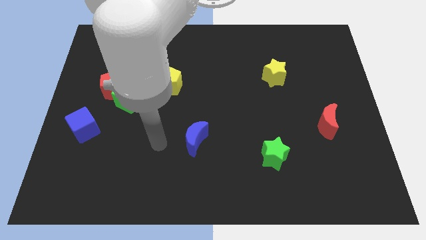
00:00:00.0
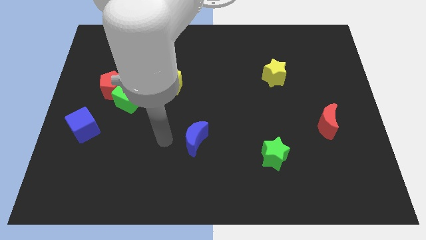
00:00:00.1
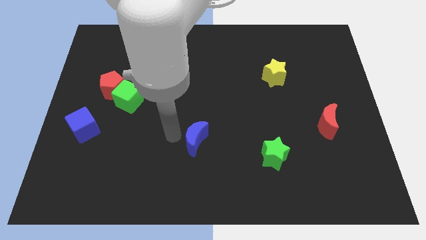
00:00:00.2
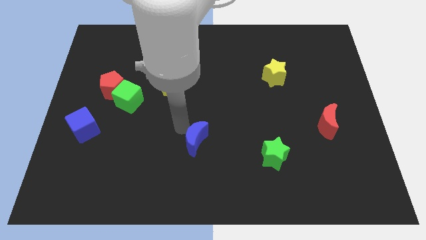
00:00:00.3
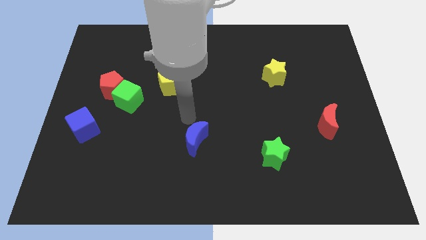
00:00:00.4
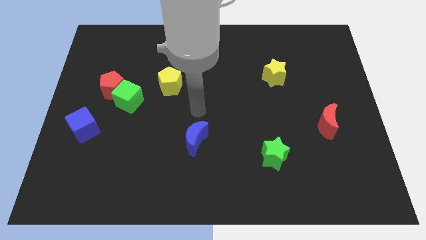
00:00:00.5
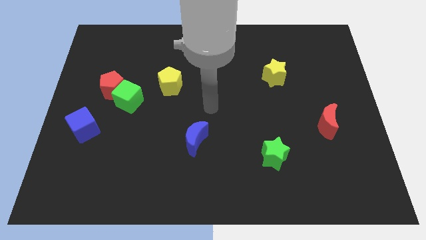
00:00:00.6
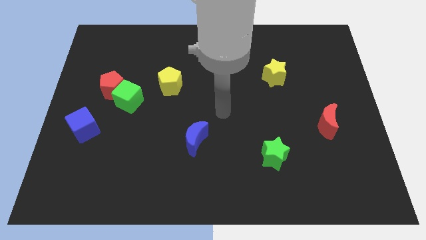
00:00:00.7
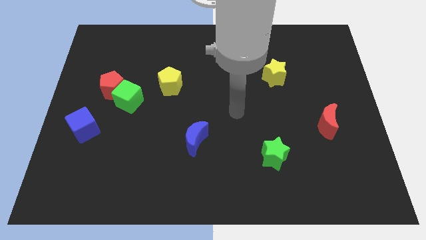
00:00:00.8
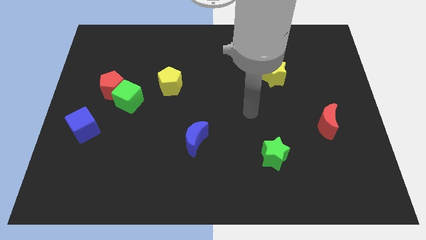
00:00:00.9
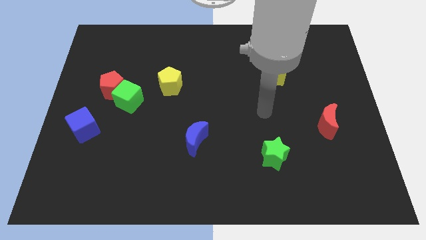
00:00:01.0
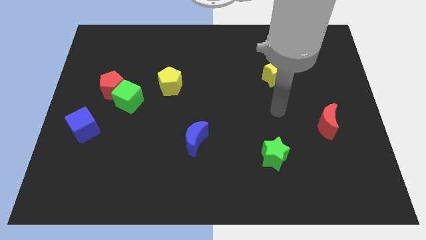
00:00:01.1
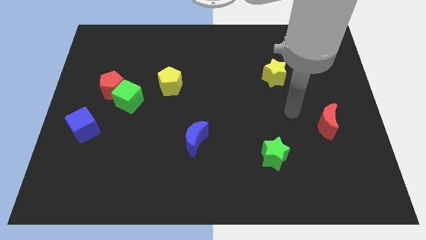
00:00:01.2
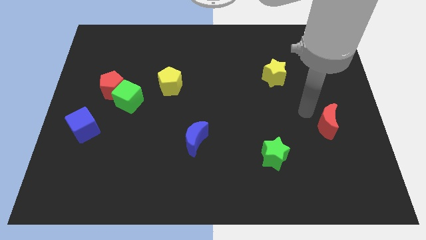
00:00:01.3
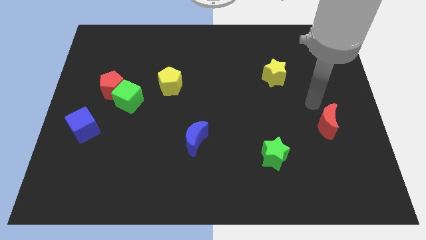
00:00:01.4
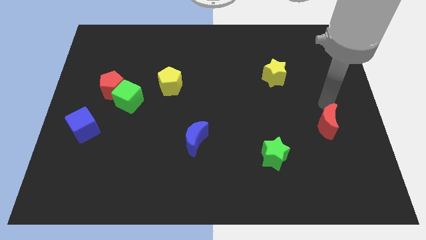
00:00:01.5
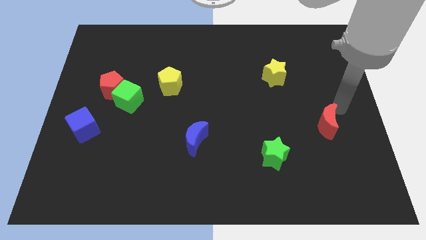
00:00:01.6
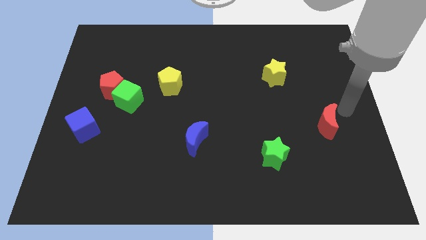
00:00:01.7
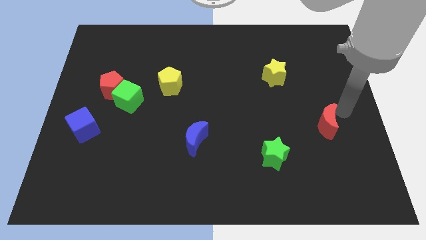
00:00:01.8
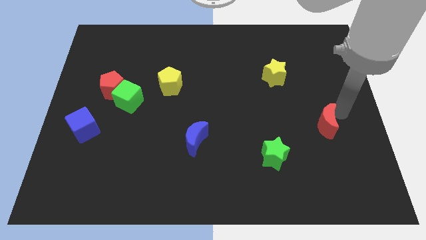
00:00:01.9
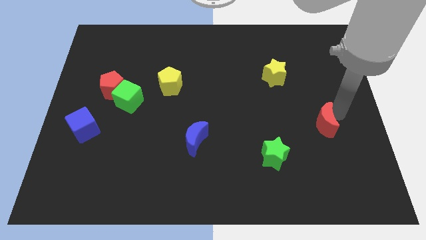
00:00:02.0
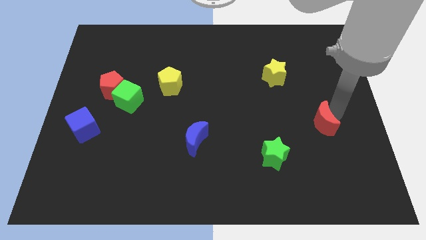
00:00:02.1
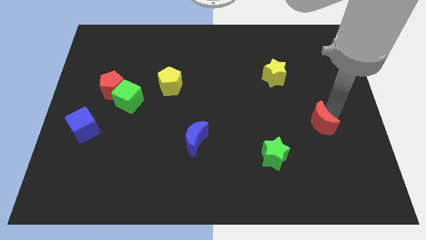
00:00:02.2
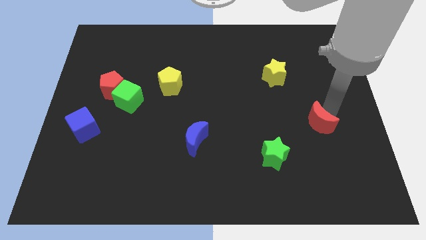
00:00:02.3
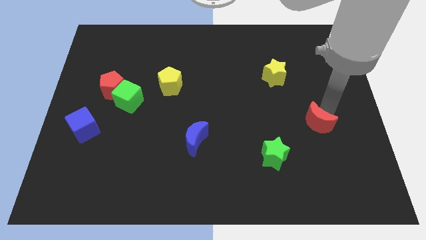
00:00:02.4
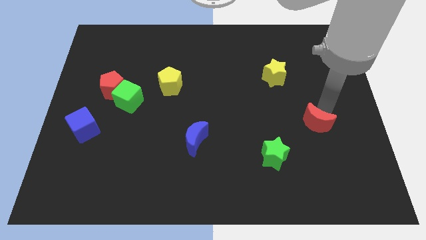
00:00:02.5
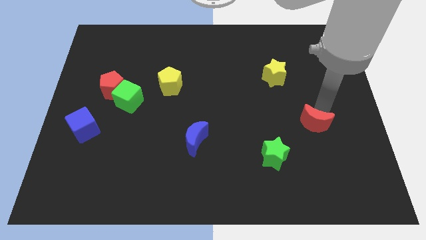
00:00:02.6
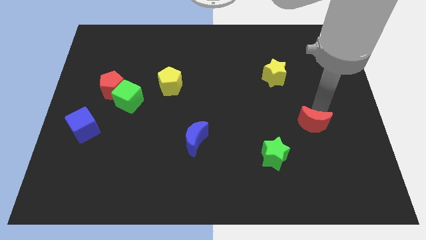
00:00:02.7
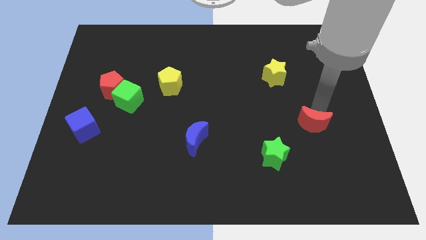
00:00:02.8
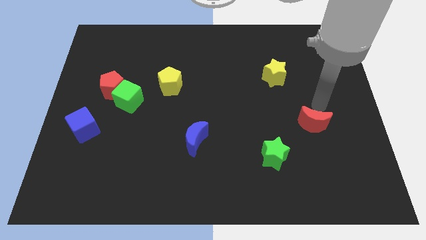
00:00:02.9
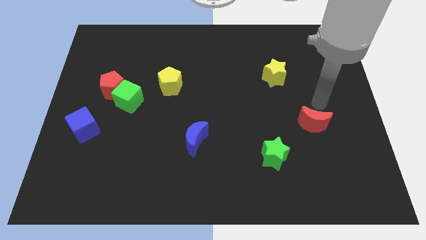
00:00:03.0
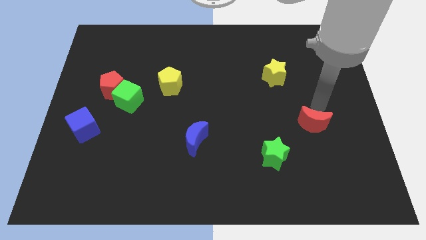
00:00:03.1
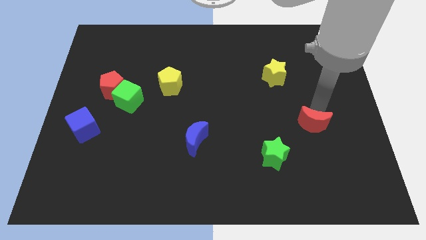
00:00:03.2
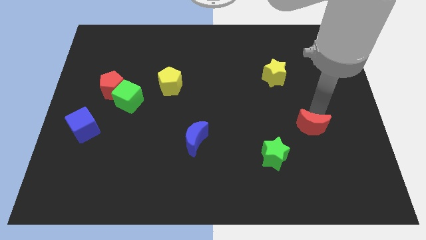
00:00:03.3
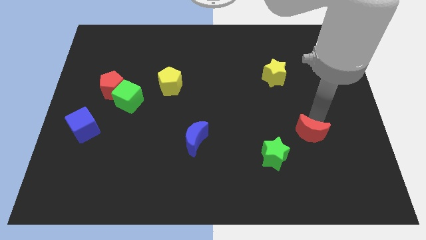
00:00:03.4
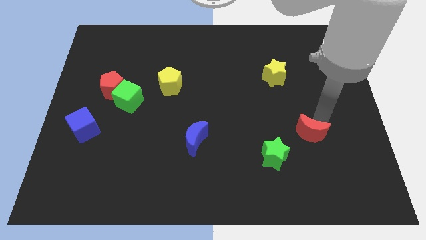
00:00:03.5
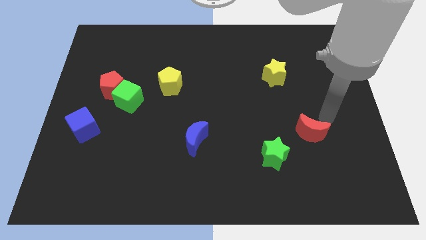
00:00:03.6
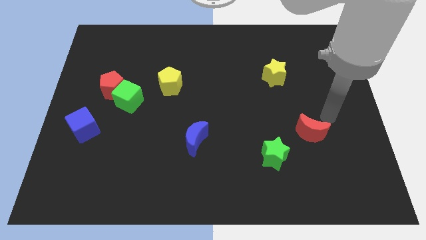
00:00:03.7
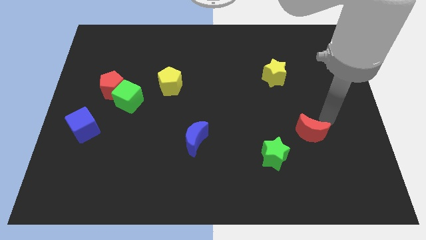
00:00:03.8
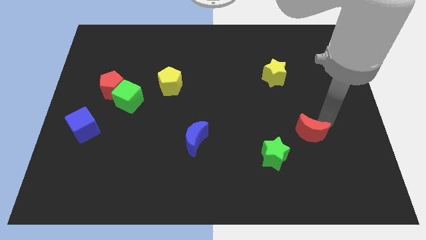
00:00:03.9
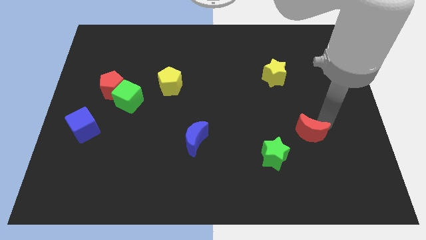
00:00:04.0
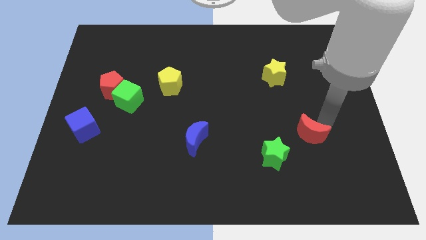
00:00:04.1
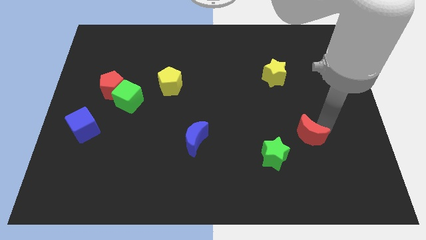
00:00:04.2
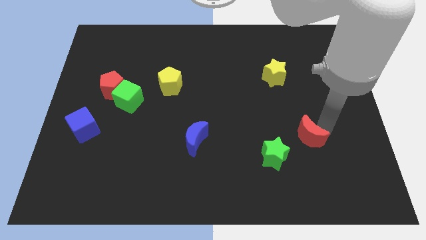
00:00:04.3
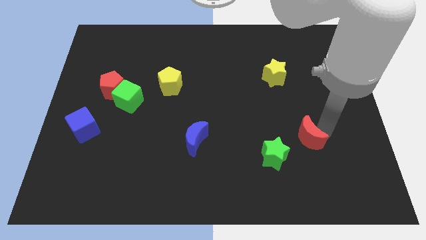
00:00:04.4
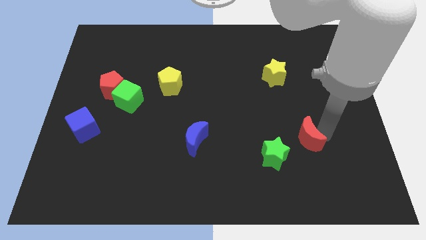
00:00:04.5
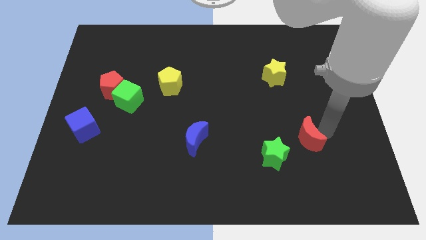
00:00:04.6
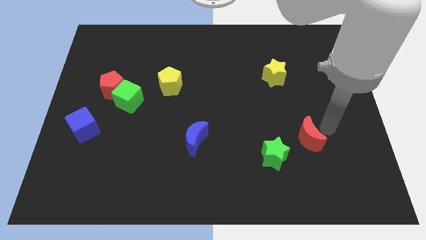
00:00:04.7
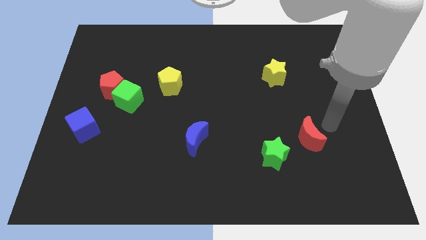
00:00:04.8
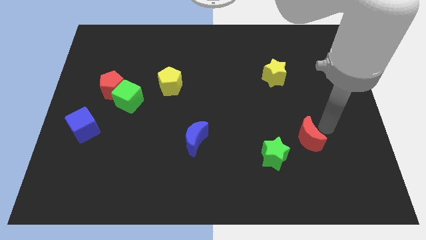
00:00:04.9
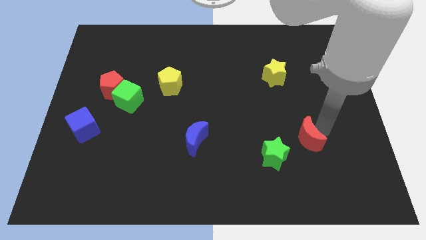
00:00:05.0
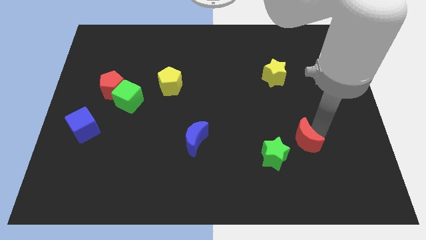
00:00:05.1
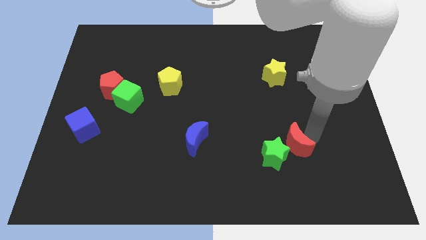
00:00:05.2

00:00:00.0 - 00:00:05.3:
push the red moon to the green star

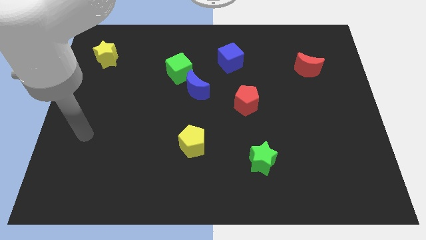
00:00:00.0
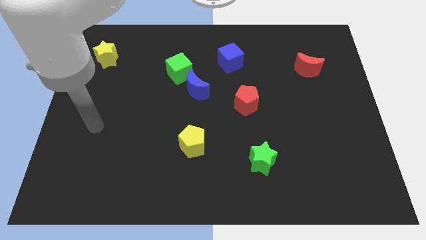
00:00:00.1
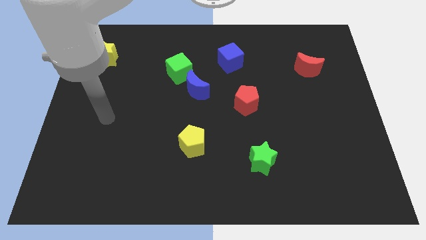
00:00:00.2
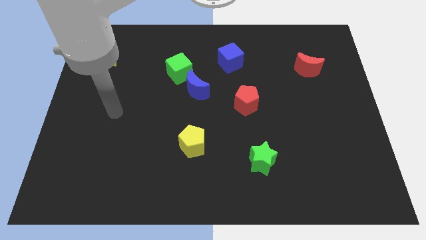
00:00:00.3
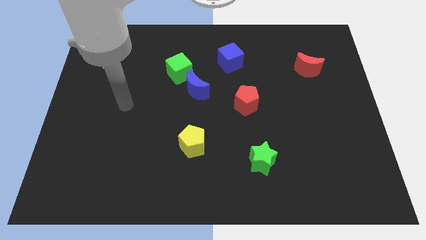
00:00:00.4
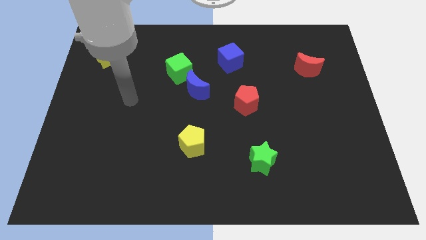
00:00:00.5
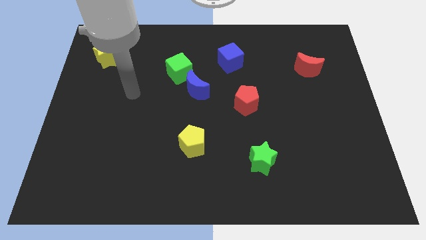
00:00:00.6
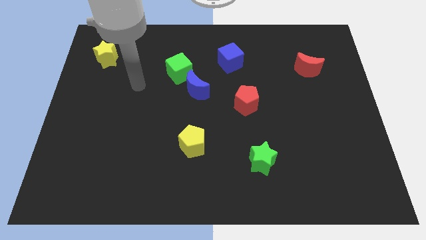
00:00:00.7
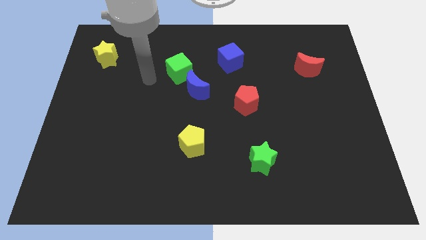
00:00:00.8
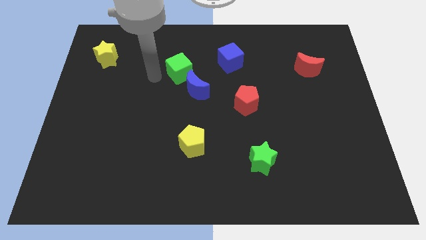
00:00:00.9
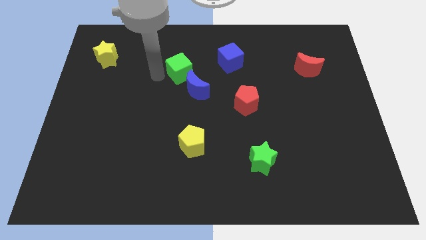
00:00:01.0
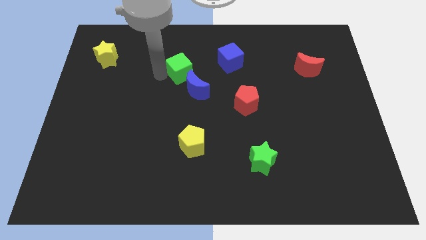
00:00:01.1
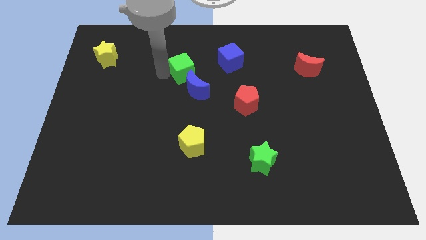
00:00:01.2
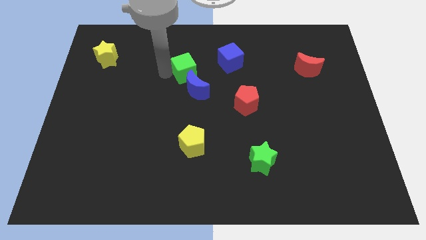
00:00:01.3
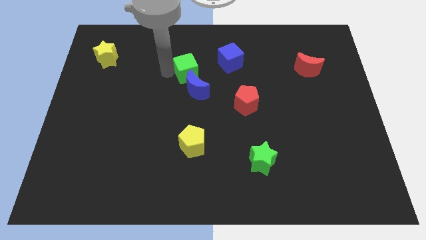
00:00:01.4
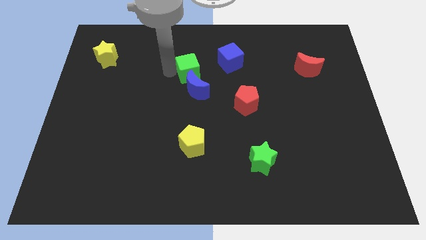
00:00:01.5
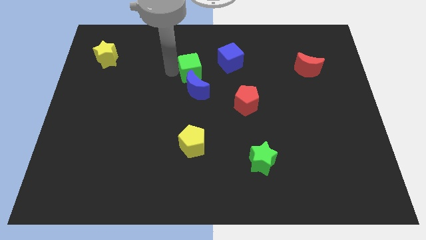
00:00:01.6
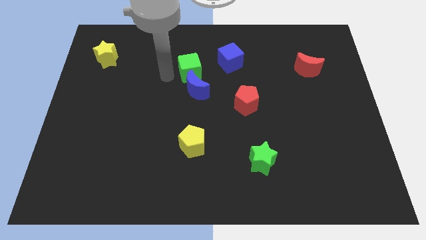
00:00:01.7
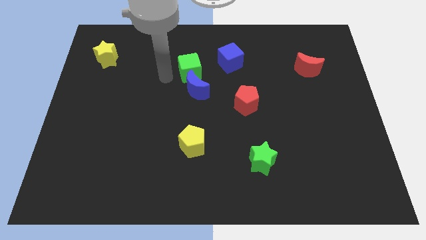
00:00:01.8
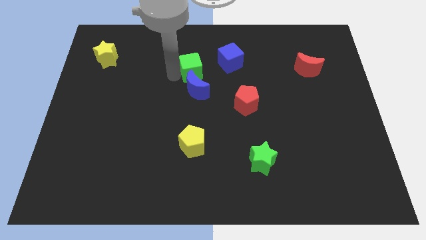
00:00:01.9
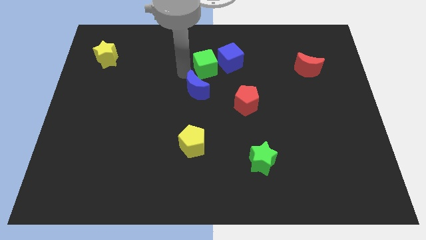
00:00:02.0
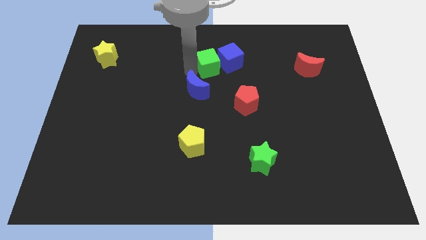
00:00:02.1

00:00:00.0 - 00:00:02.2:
slide the green cube to the blue cube

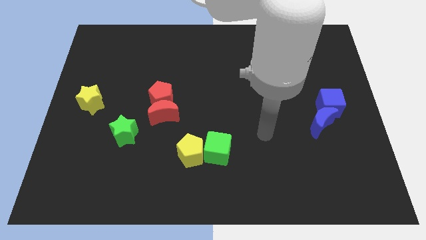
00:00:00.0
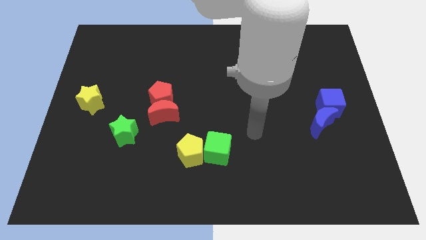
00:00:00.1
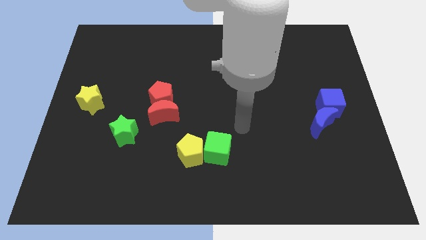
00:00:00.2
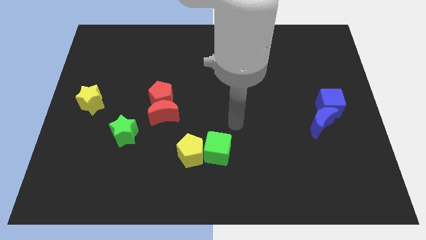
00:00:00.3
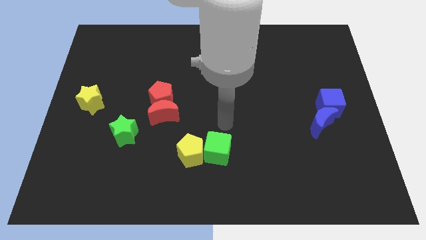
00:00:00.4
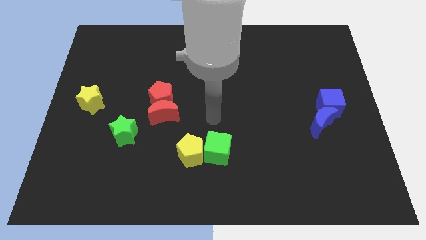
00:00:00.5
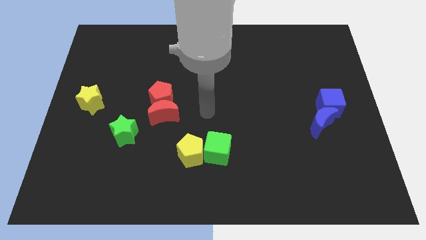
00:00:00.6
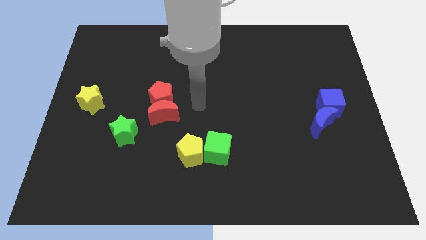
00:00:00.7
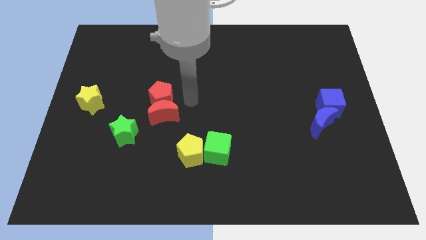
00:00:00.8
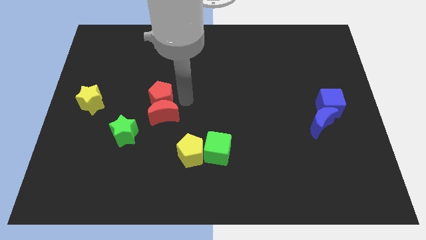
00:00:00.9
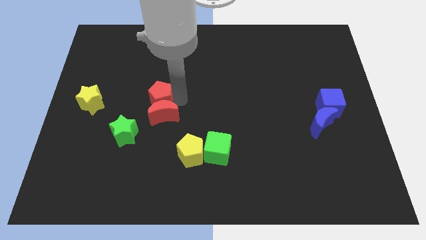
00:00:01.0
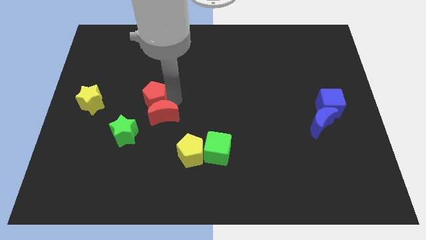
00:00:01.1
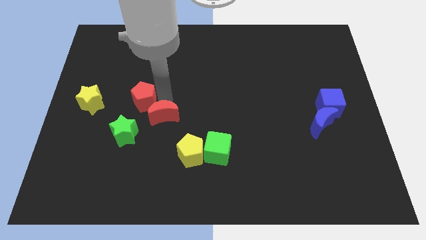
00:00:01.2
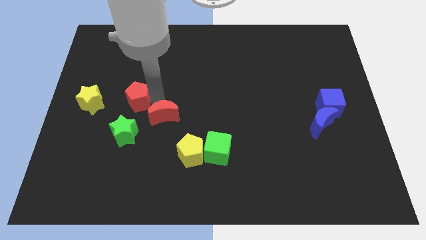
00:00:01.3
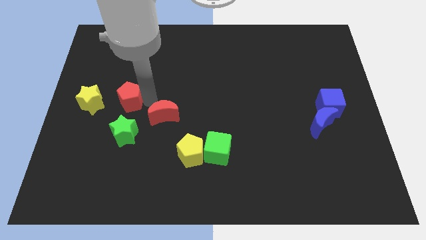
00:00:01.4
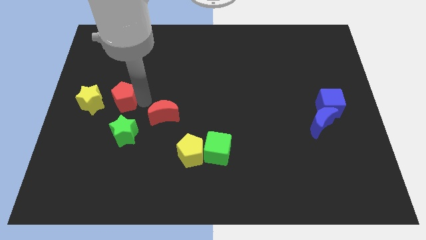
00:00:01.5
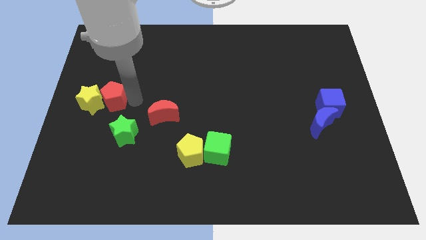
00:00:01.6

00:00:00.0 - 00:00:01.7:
move the red pentagon towards the yellow star
